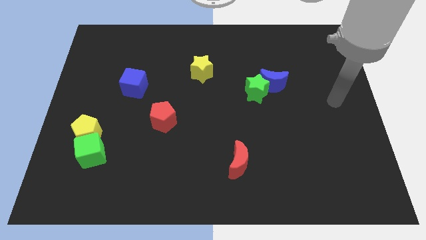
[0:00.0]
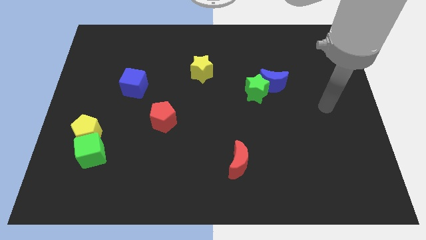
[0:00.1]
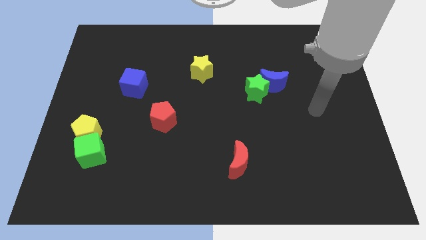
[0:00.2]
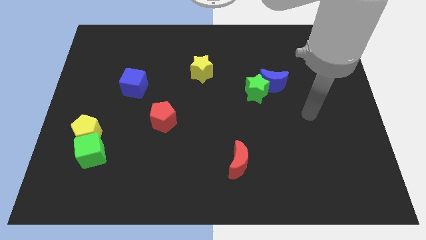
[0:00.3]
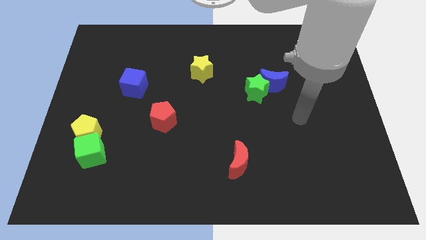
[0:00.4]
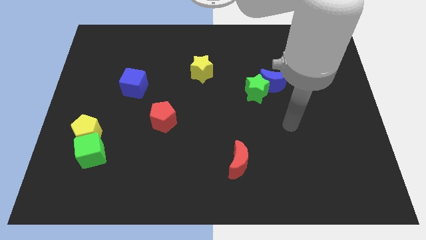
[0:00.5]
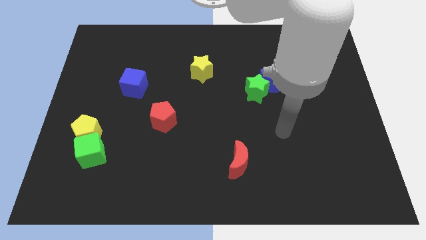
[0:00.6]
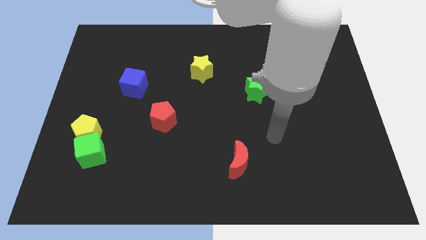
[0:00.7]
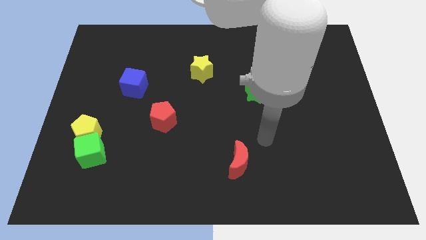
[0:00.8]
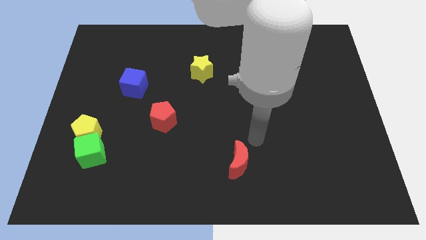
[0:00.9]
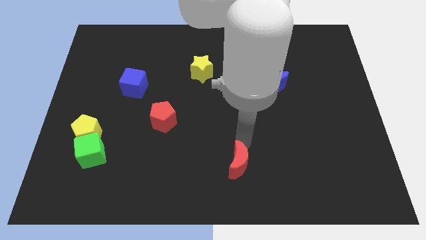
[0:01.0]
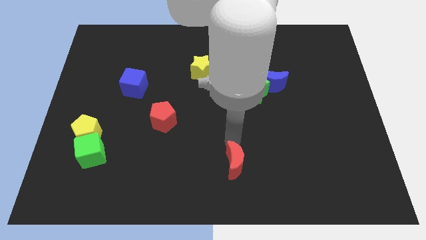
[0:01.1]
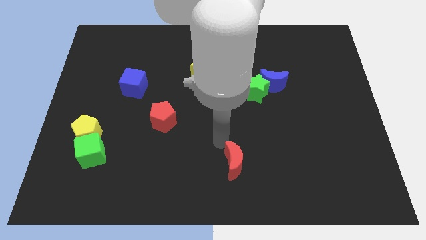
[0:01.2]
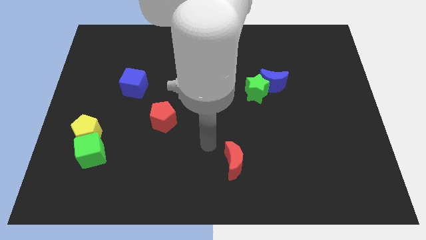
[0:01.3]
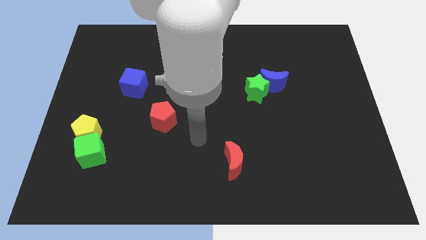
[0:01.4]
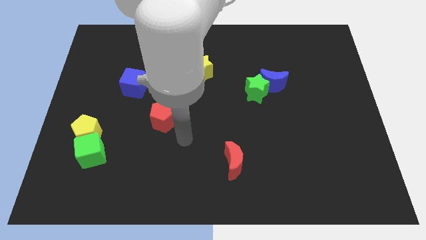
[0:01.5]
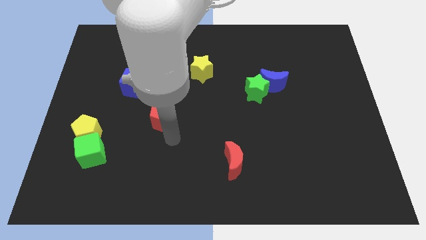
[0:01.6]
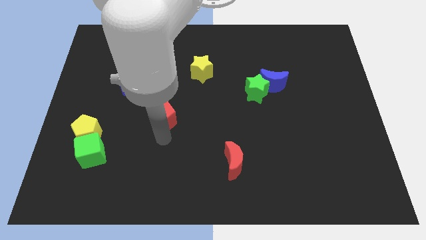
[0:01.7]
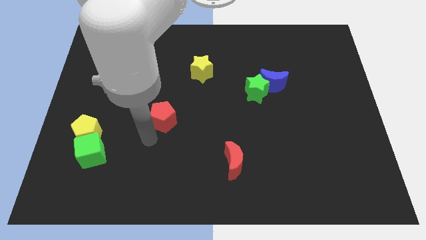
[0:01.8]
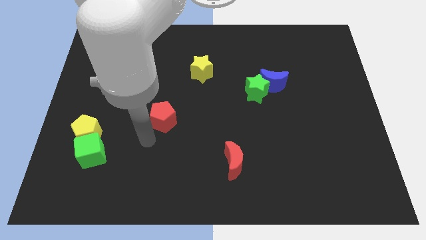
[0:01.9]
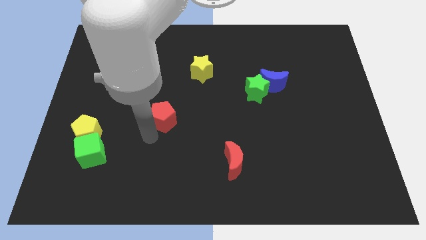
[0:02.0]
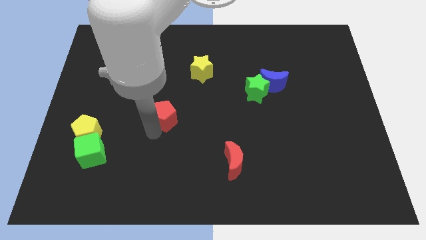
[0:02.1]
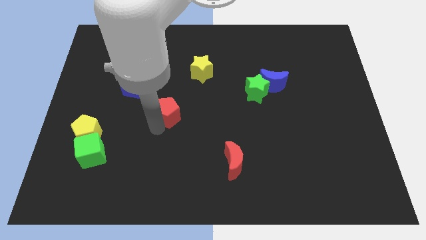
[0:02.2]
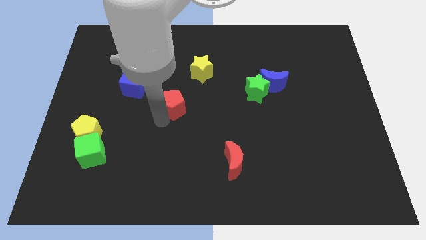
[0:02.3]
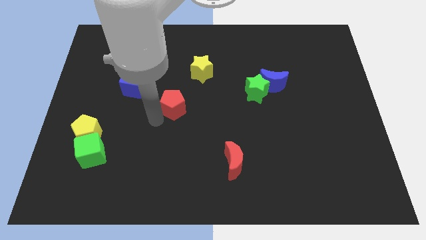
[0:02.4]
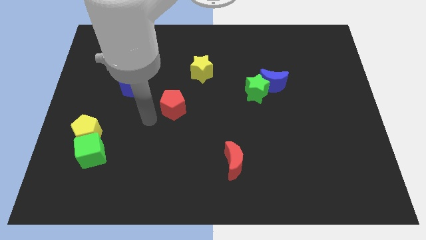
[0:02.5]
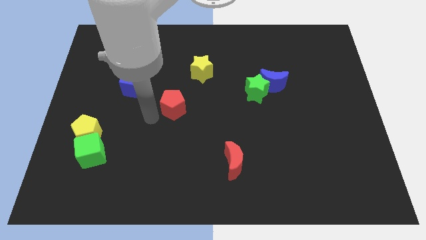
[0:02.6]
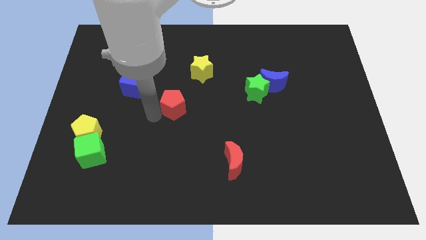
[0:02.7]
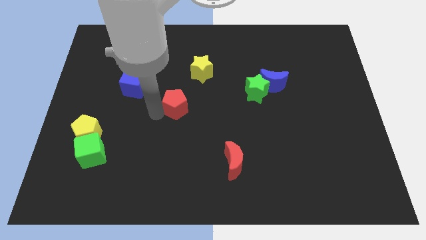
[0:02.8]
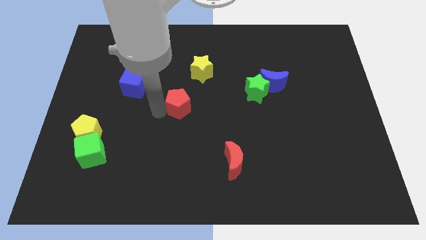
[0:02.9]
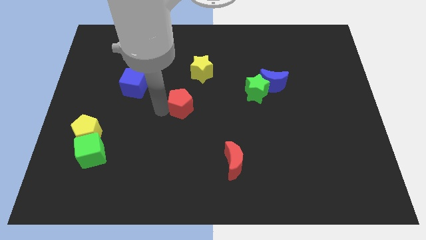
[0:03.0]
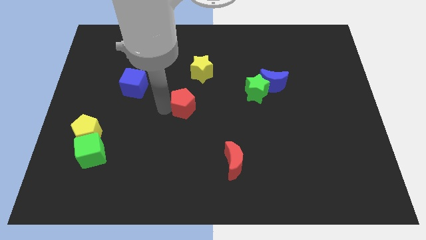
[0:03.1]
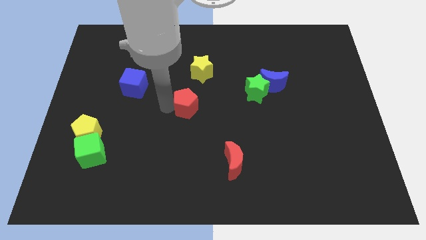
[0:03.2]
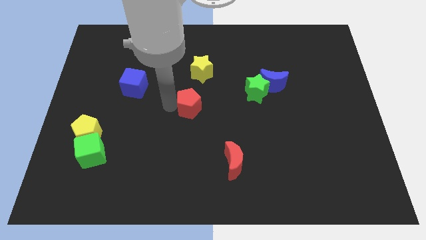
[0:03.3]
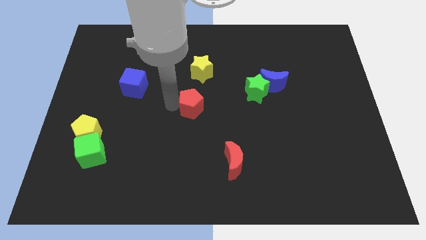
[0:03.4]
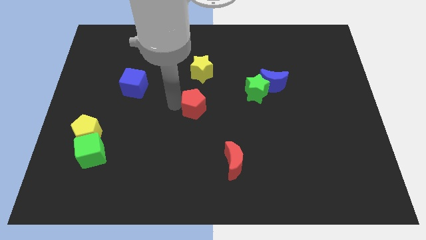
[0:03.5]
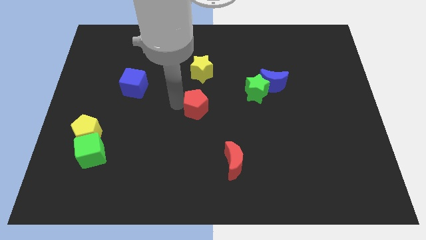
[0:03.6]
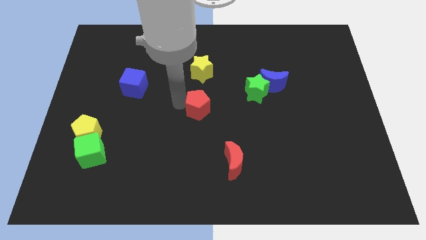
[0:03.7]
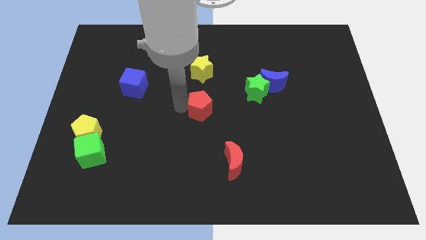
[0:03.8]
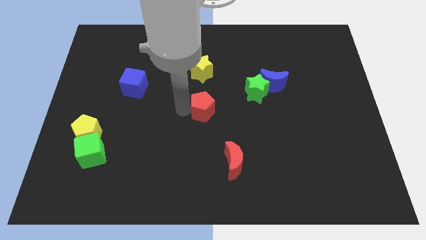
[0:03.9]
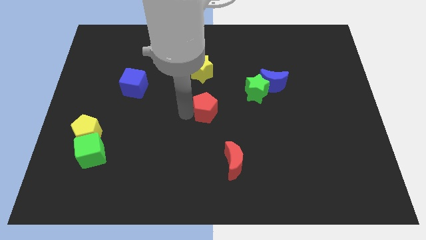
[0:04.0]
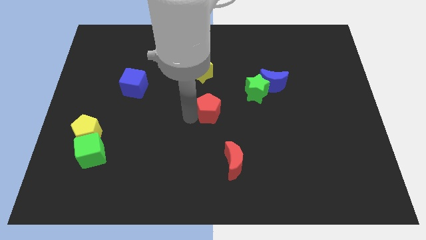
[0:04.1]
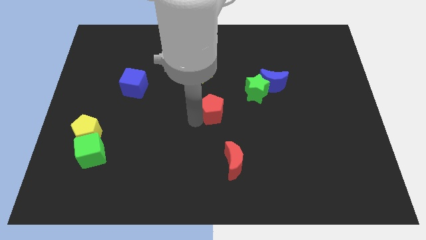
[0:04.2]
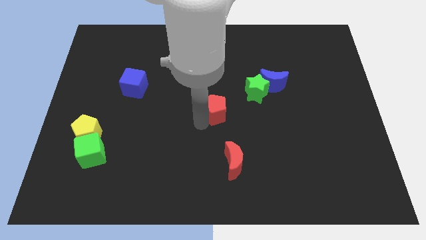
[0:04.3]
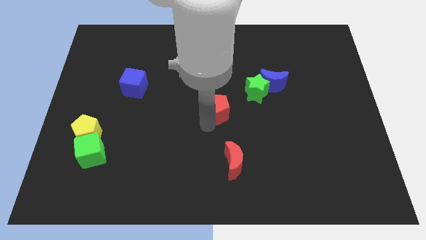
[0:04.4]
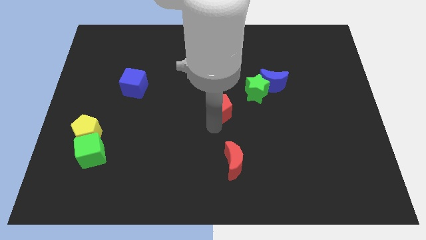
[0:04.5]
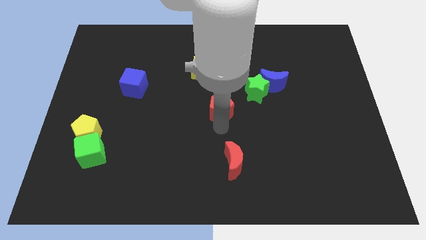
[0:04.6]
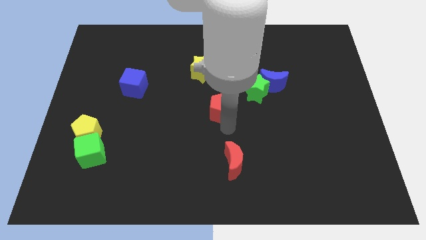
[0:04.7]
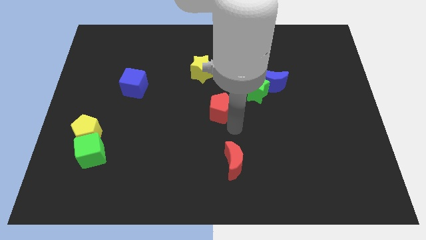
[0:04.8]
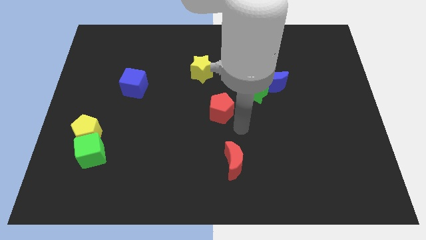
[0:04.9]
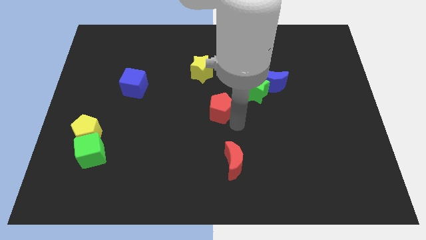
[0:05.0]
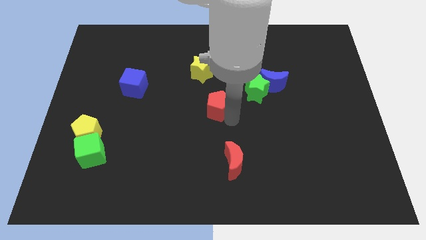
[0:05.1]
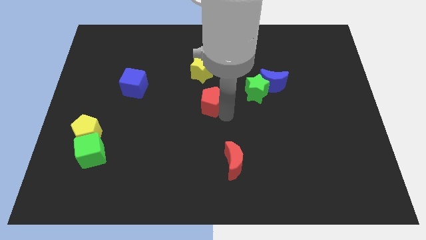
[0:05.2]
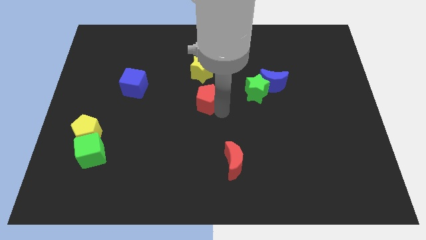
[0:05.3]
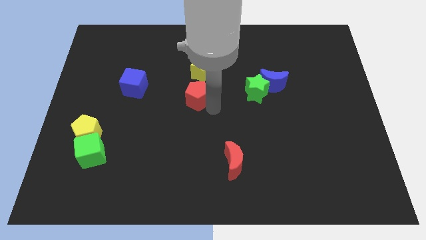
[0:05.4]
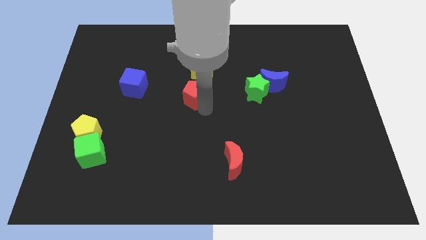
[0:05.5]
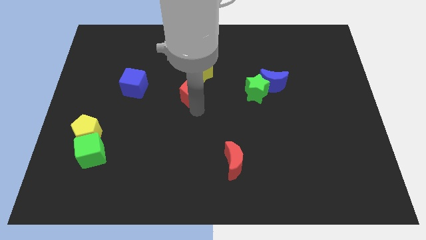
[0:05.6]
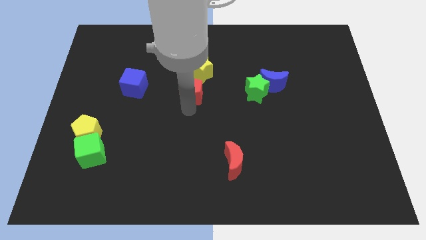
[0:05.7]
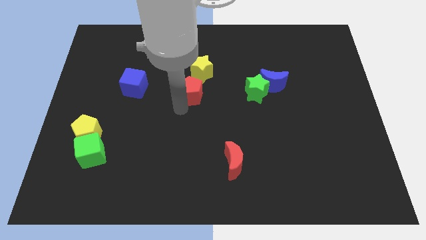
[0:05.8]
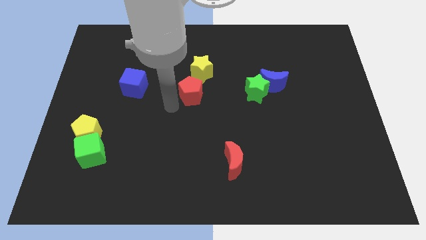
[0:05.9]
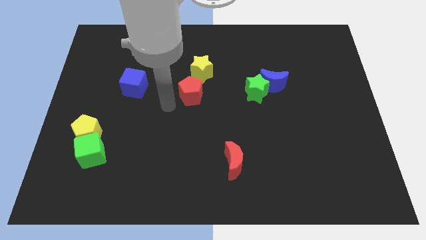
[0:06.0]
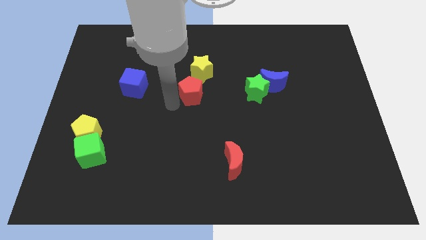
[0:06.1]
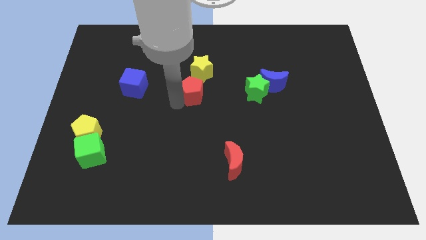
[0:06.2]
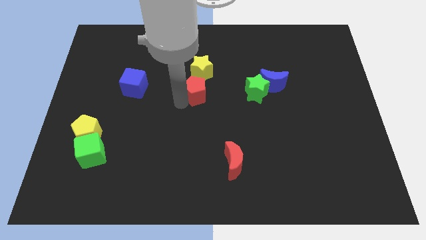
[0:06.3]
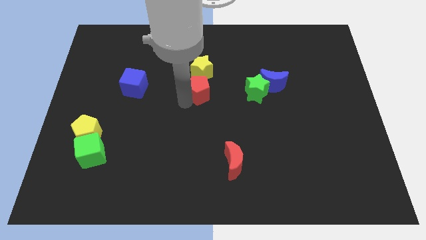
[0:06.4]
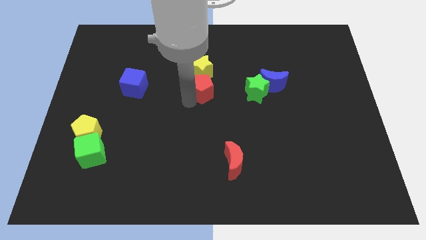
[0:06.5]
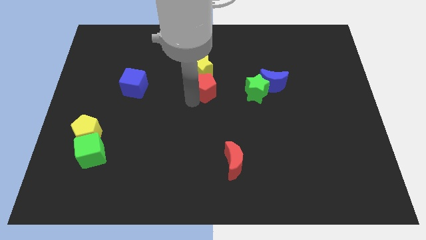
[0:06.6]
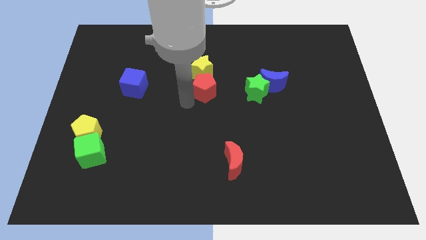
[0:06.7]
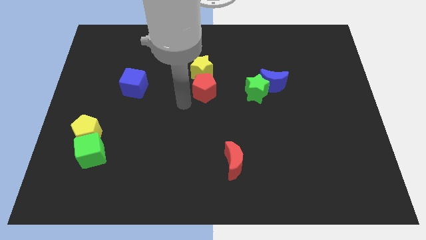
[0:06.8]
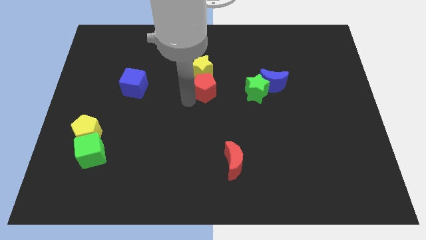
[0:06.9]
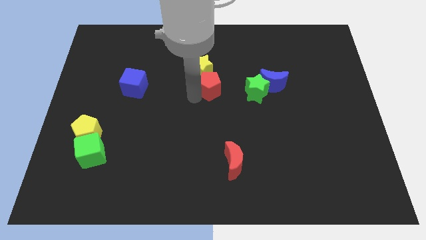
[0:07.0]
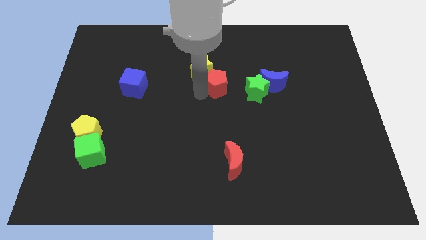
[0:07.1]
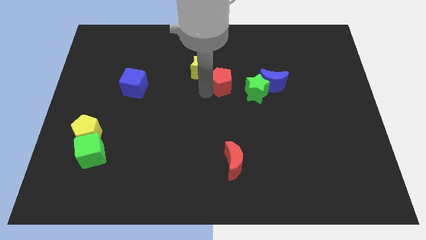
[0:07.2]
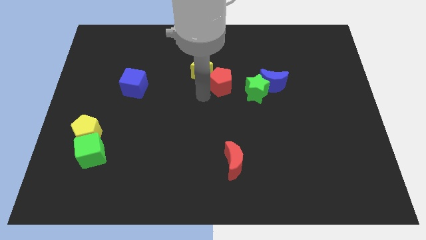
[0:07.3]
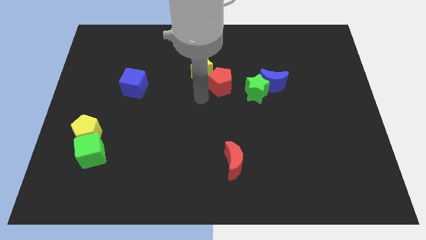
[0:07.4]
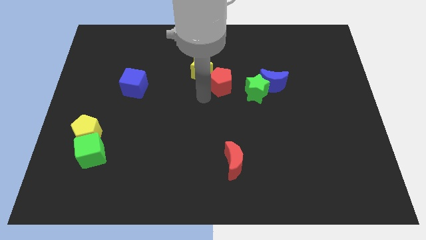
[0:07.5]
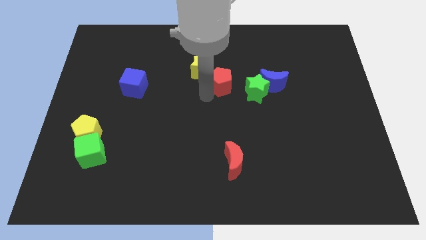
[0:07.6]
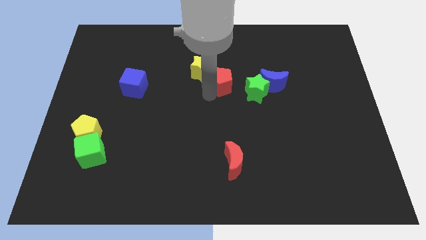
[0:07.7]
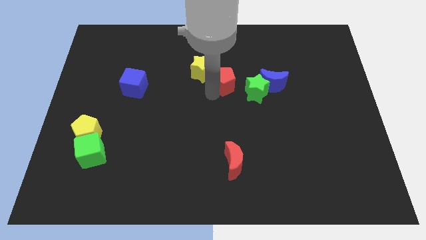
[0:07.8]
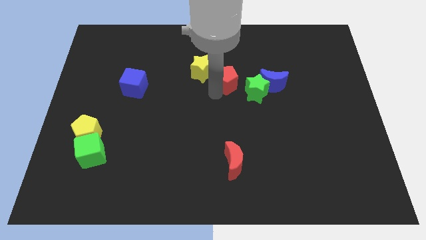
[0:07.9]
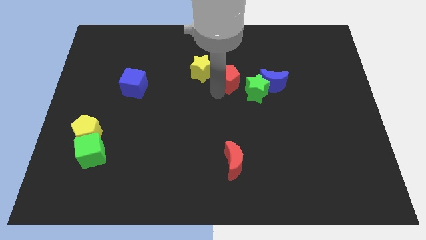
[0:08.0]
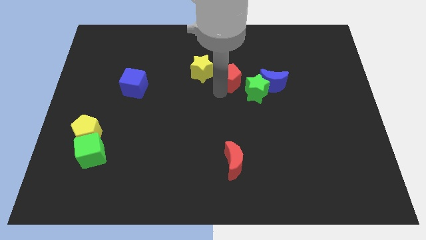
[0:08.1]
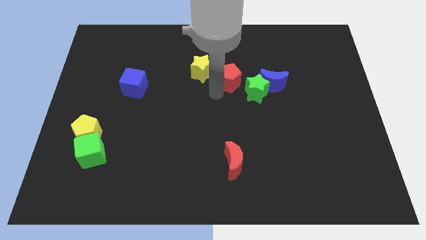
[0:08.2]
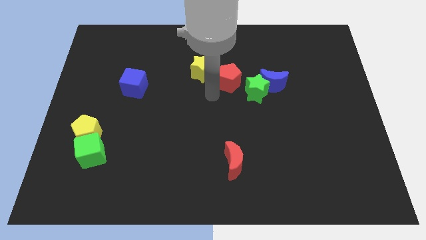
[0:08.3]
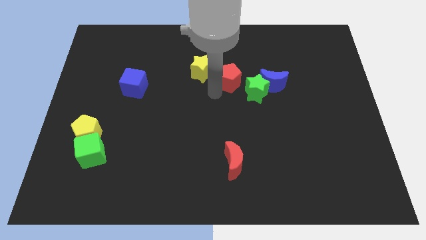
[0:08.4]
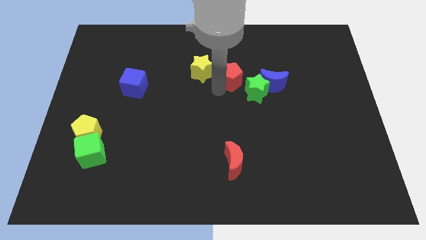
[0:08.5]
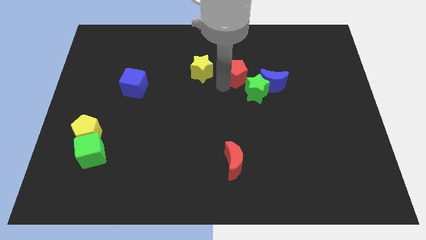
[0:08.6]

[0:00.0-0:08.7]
move the red pentagon to the top left of the blue moon
